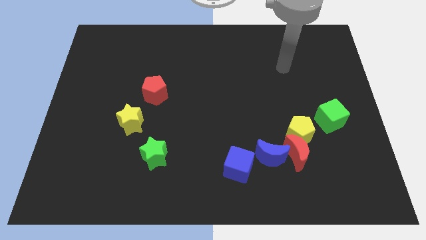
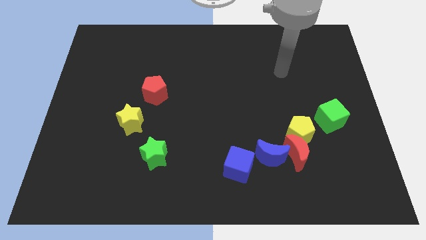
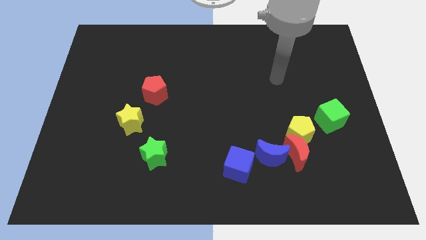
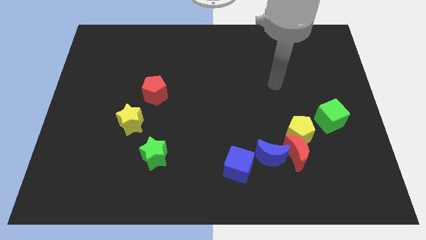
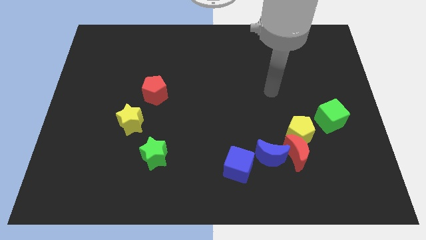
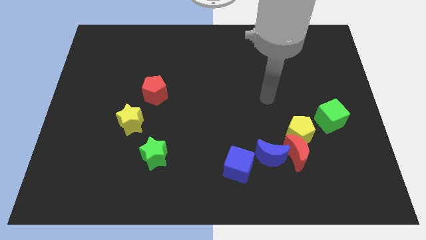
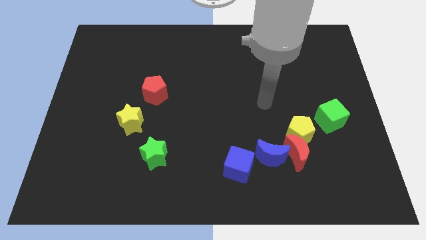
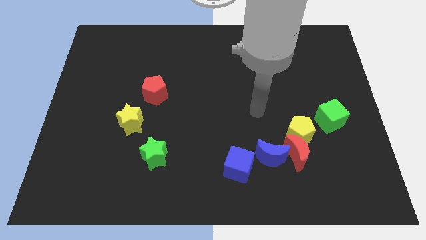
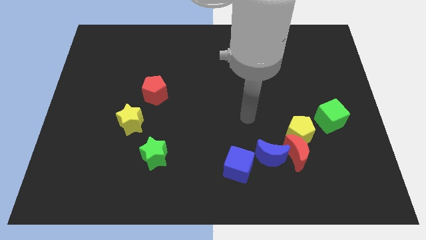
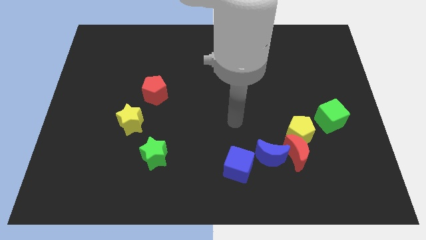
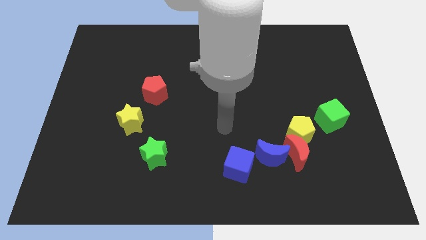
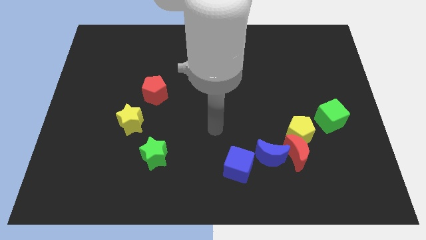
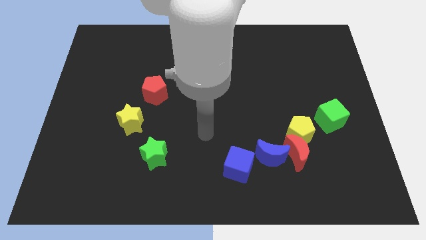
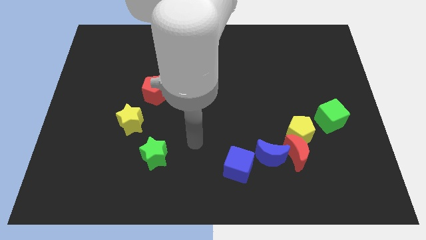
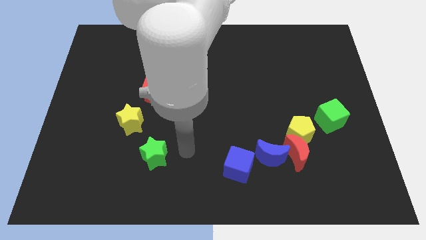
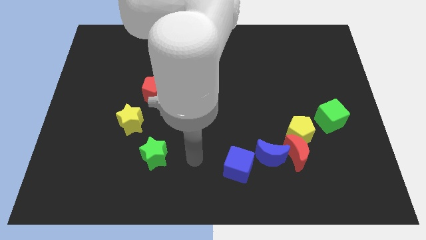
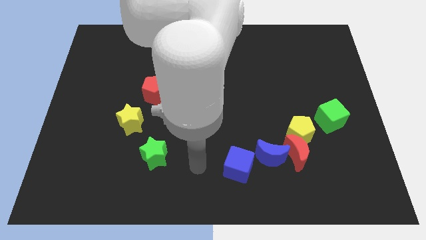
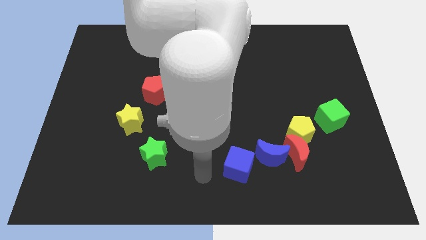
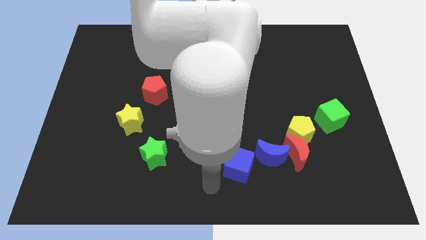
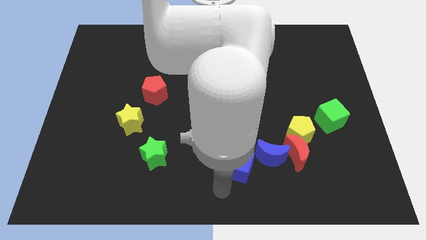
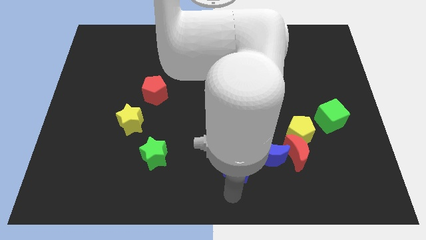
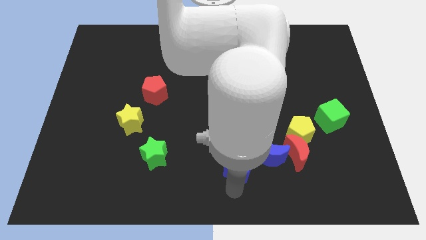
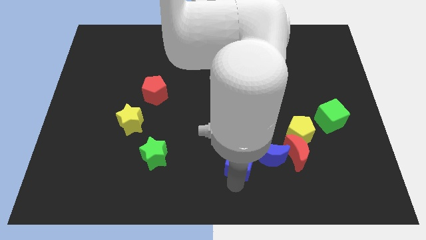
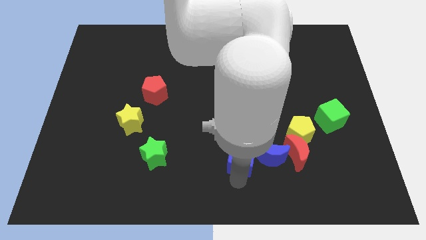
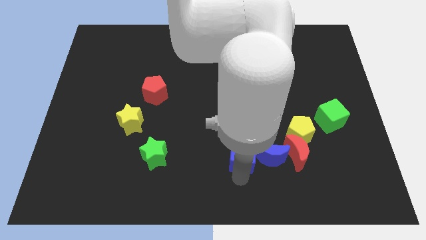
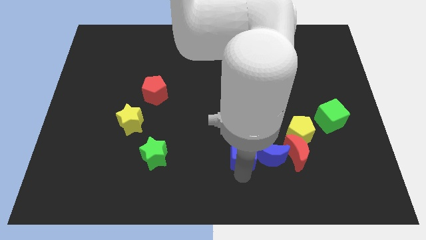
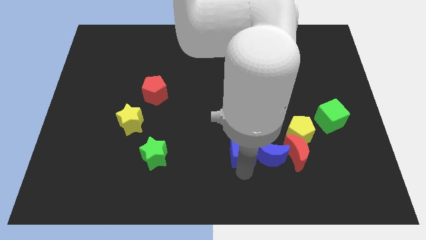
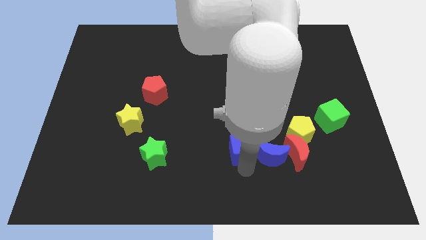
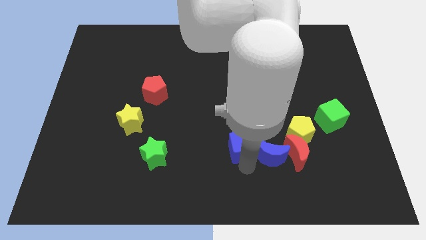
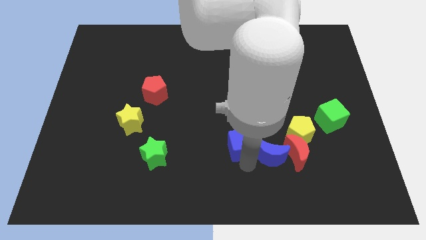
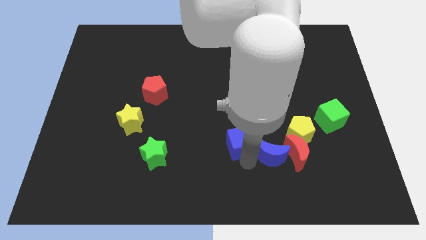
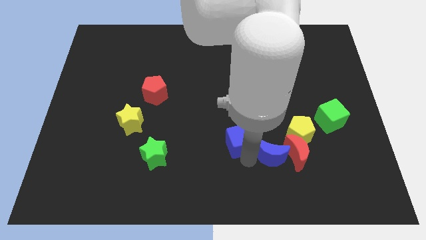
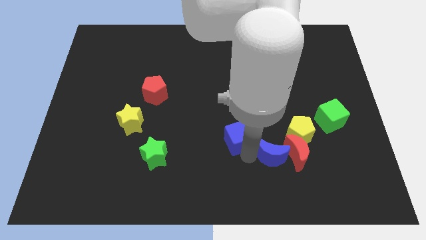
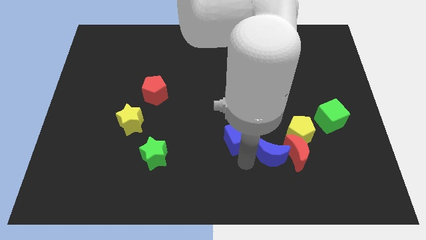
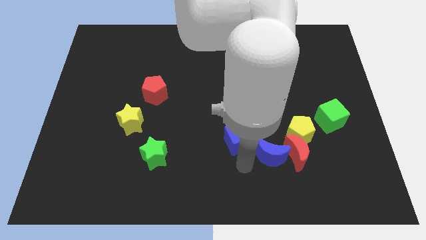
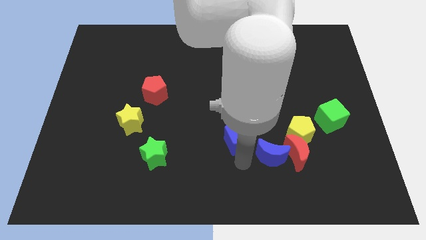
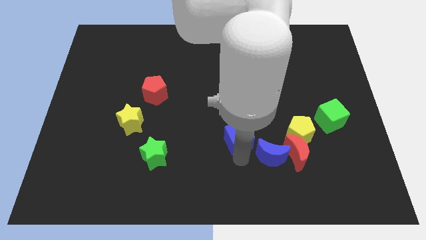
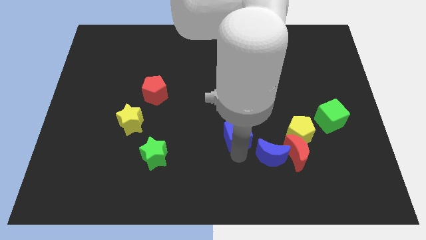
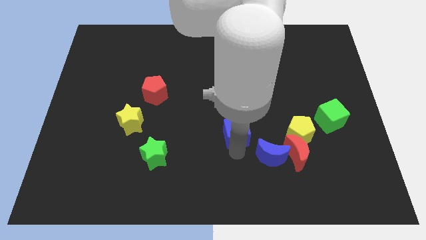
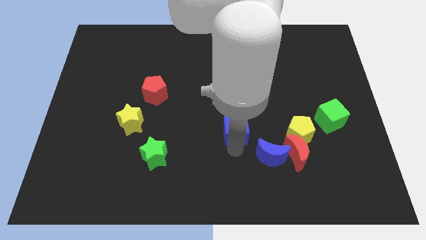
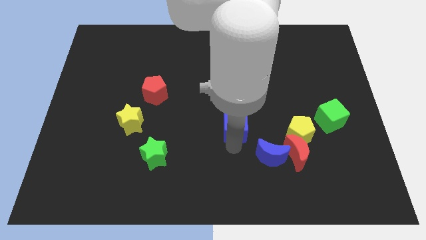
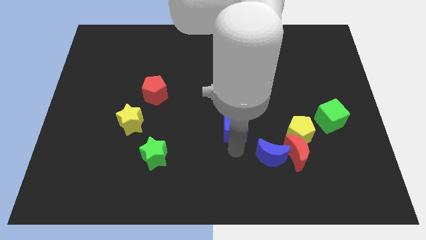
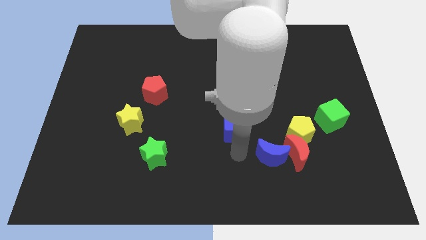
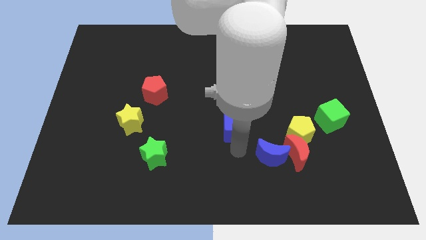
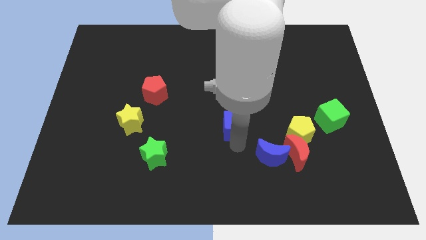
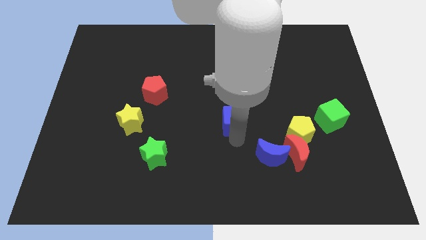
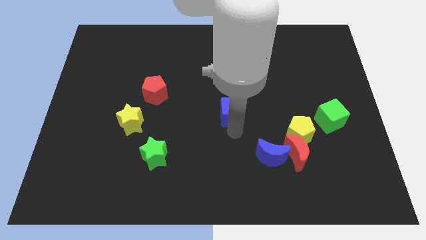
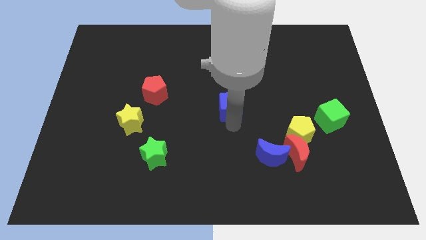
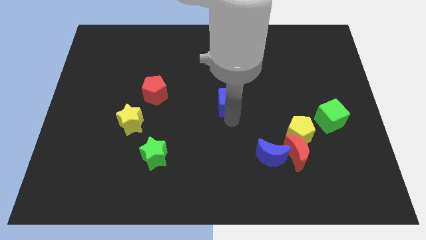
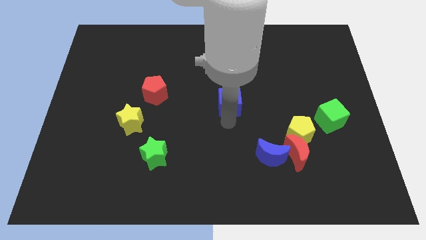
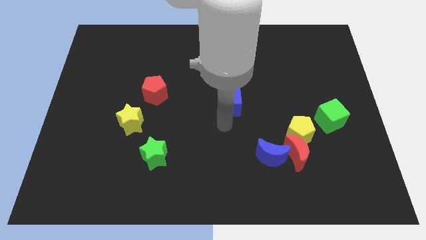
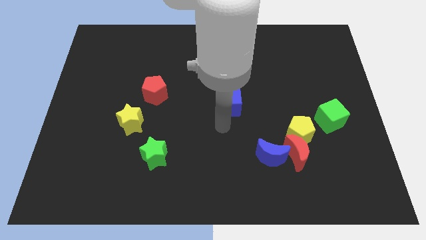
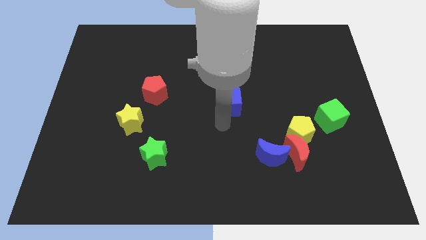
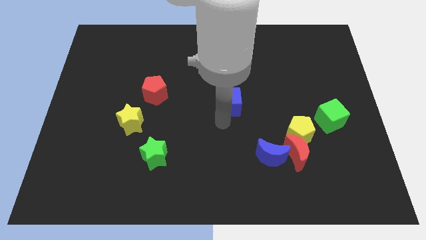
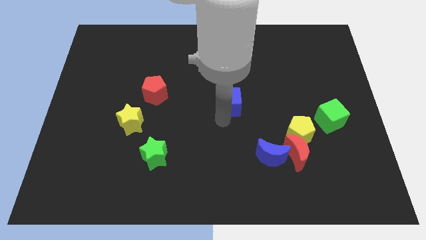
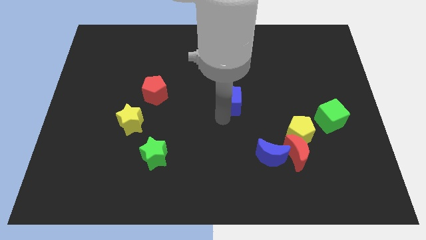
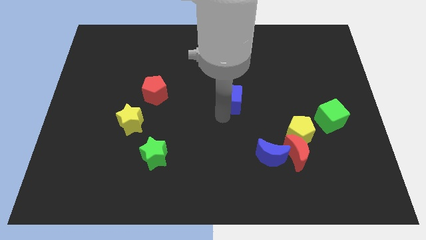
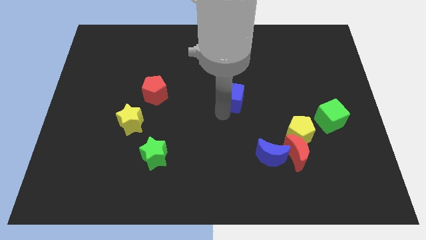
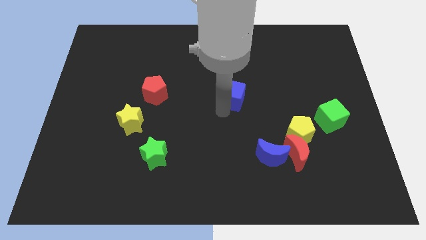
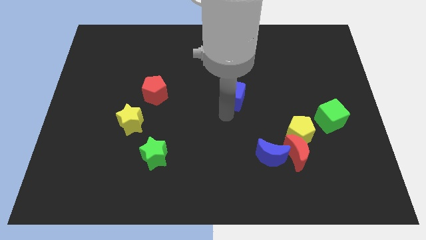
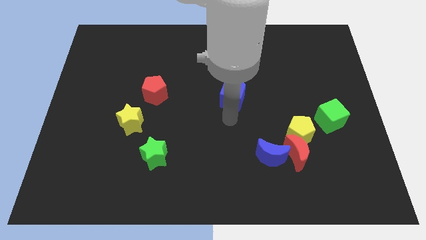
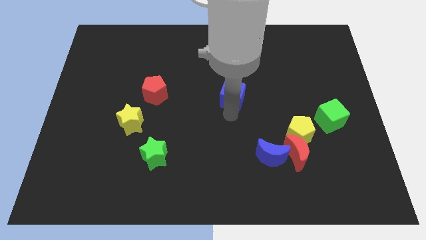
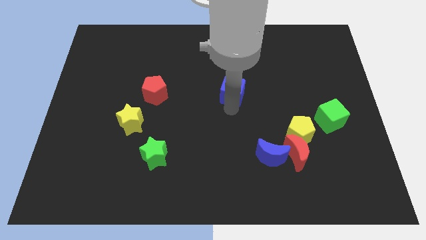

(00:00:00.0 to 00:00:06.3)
slide the blue cube up

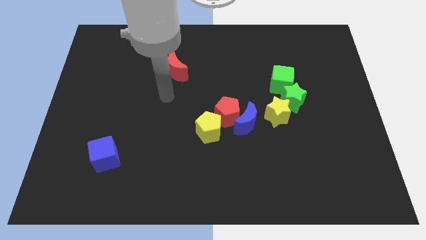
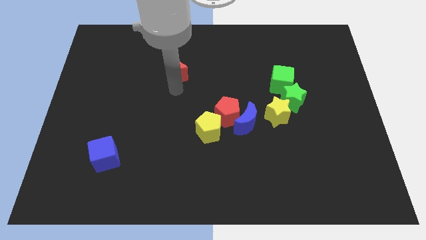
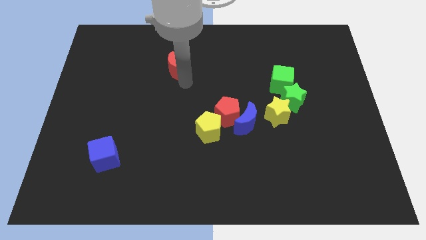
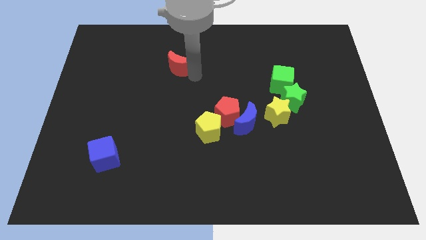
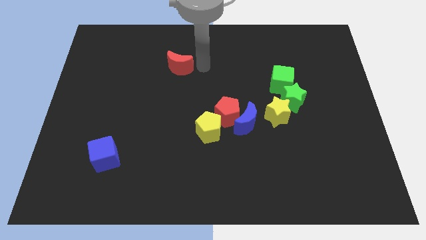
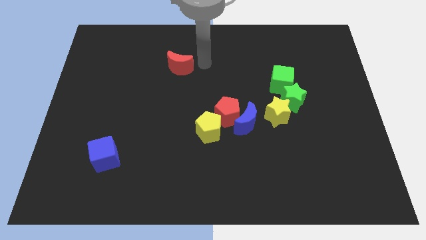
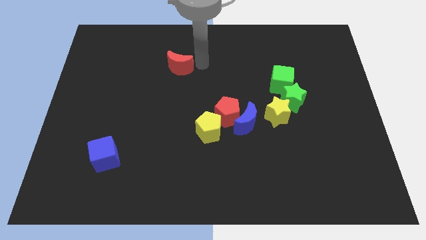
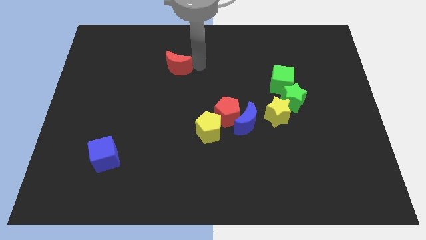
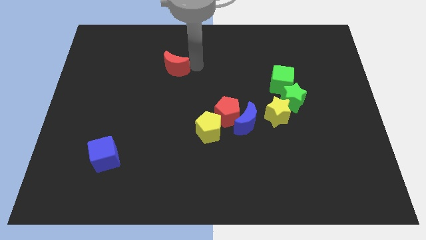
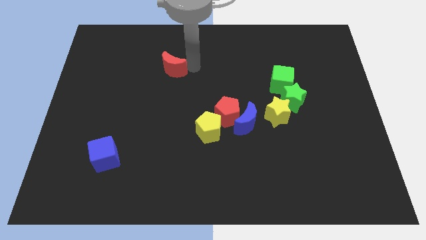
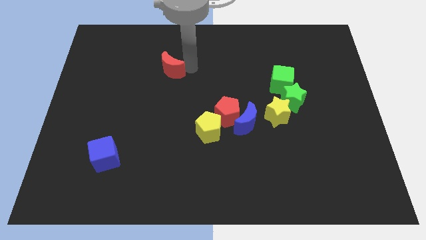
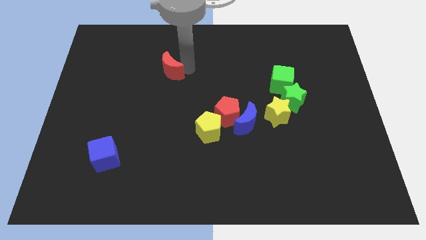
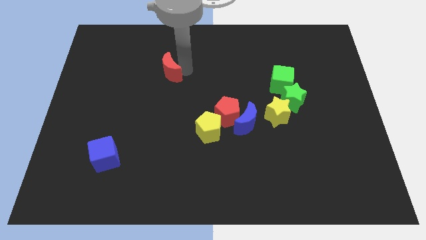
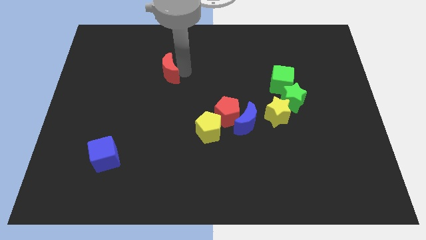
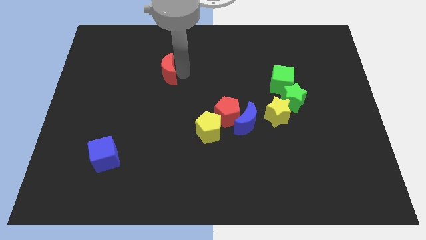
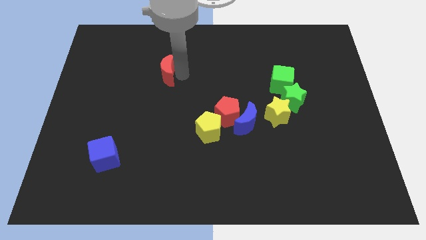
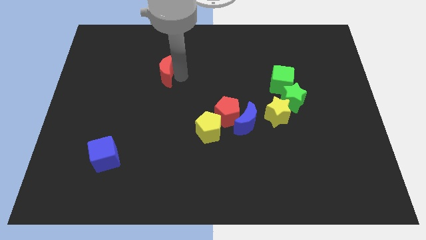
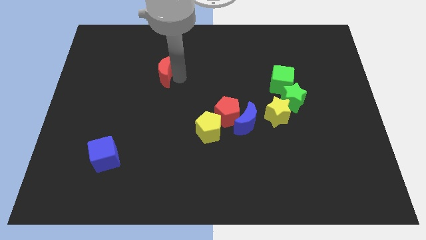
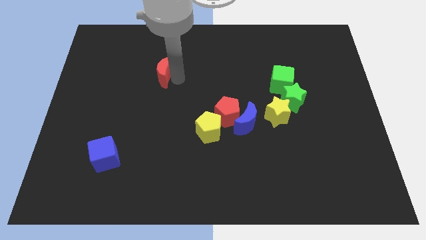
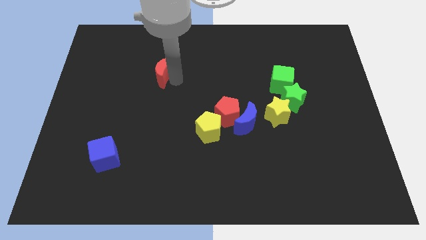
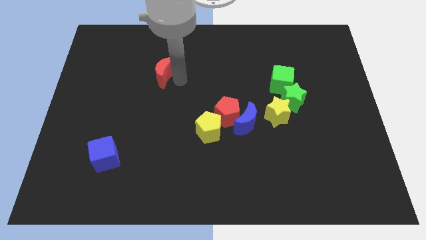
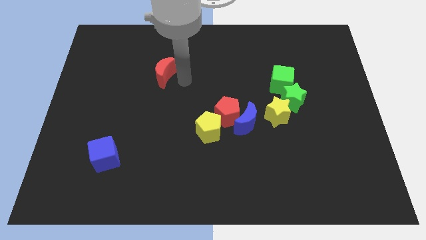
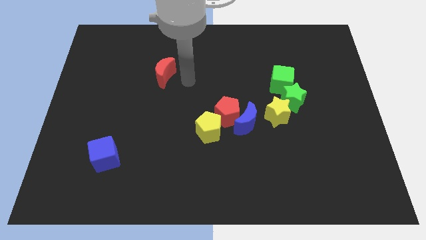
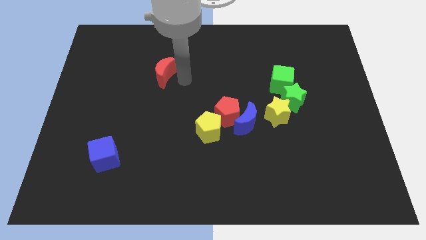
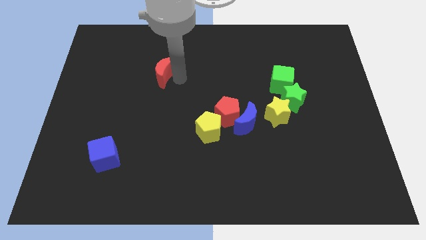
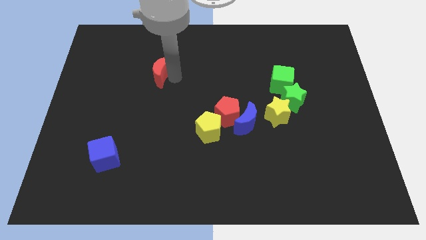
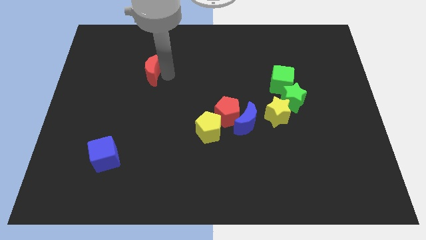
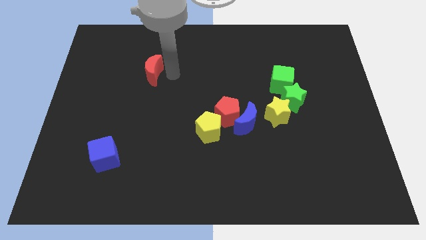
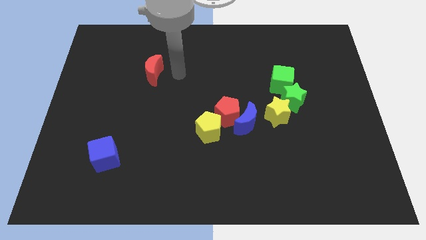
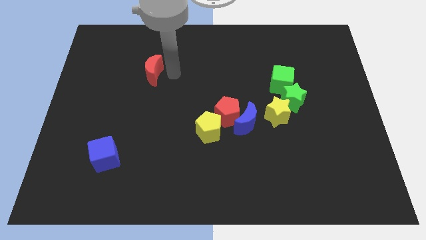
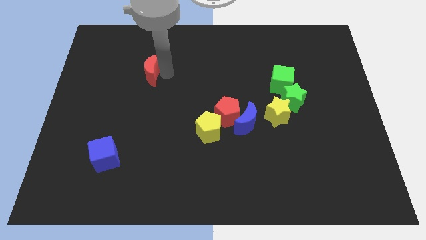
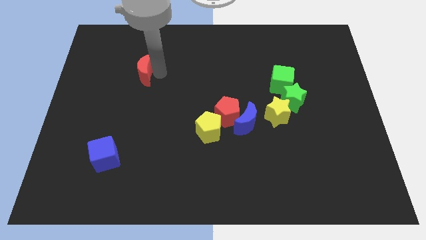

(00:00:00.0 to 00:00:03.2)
move the red moon left a little bit
